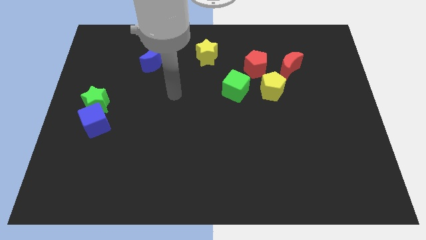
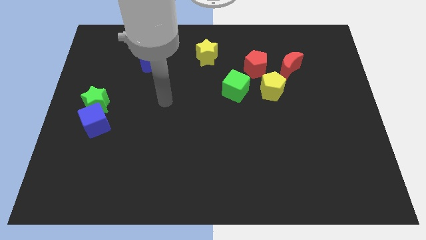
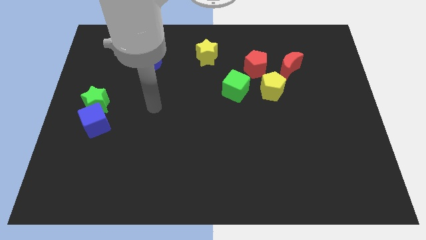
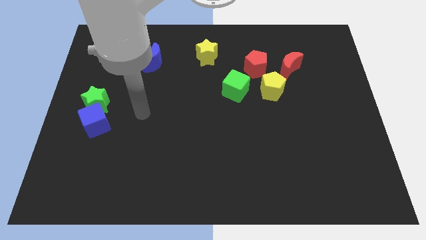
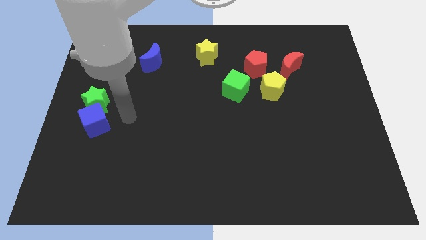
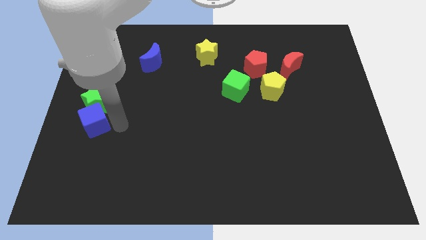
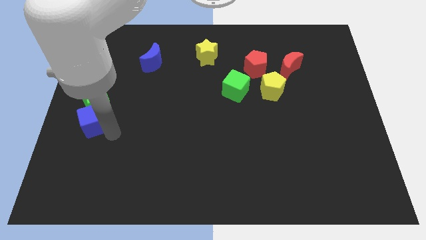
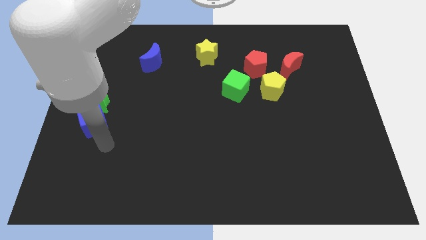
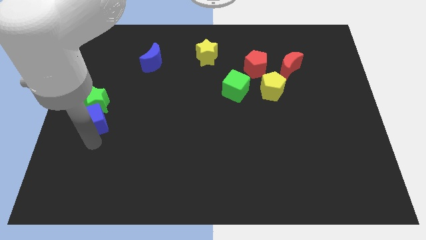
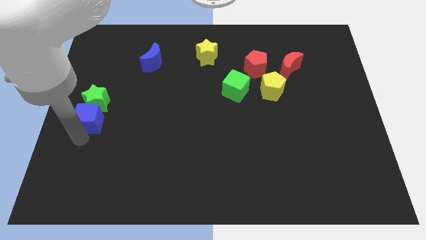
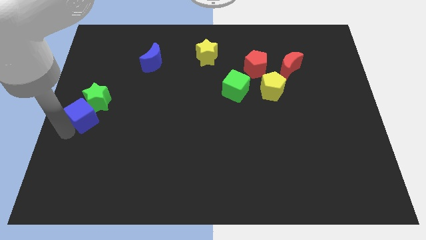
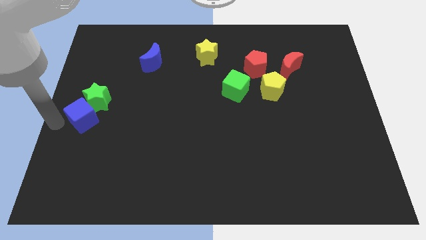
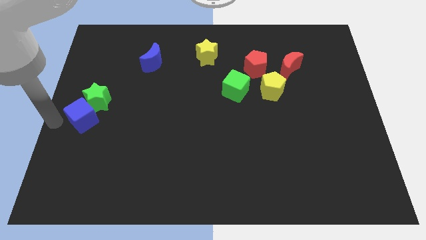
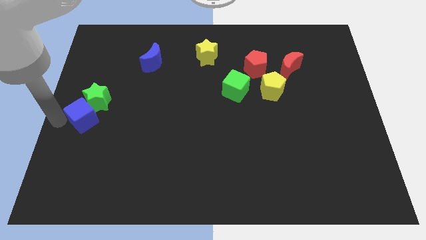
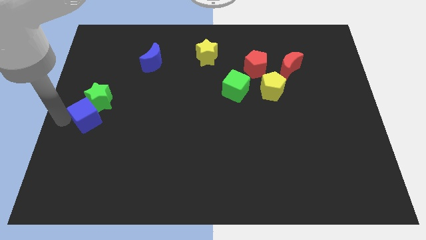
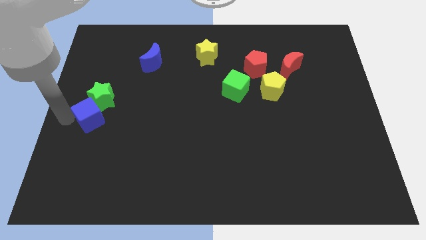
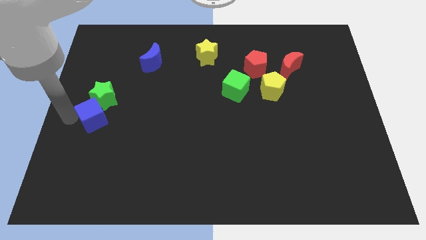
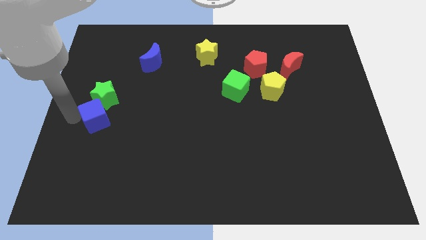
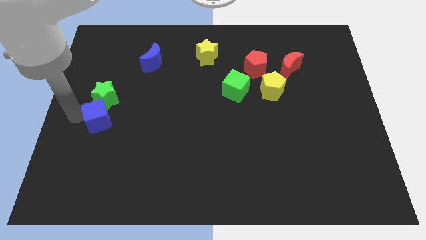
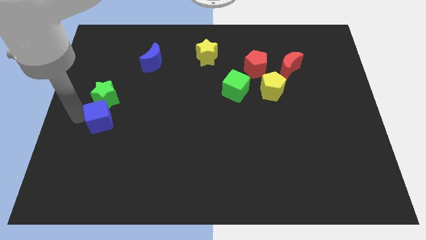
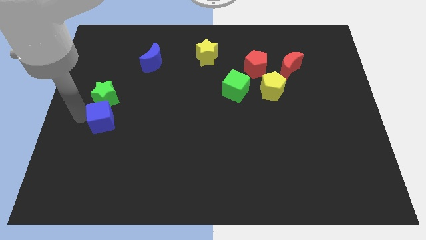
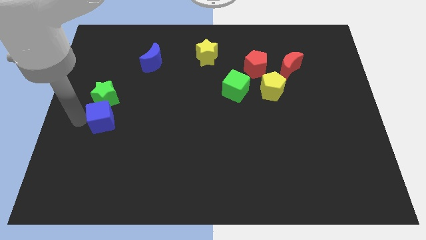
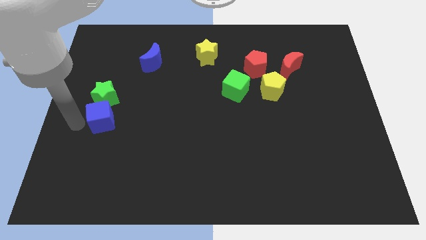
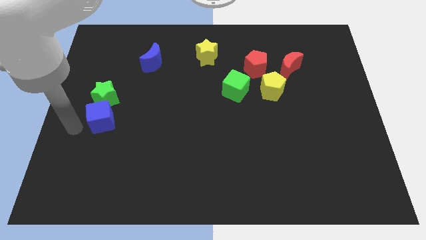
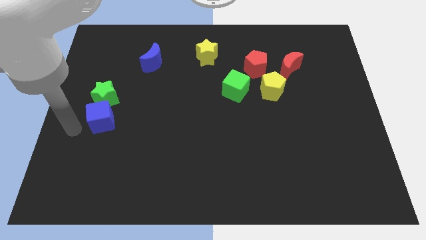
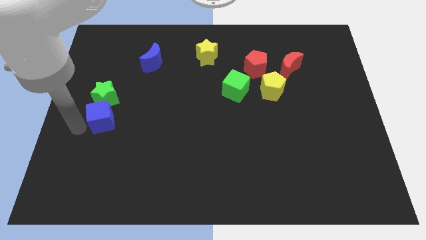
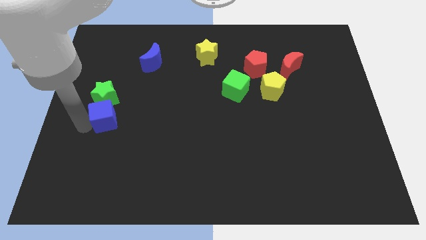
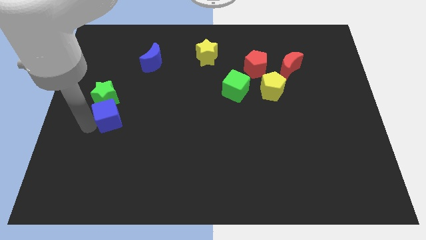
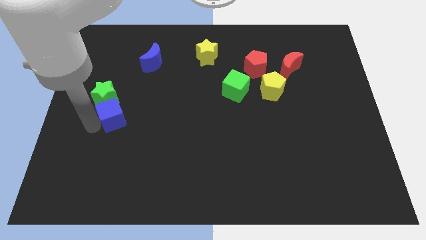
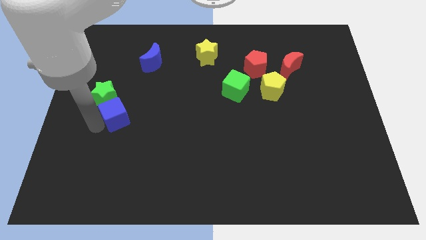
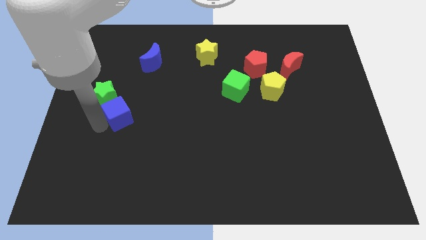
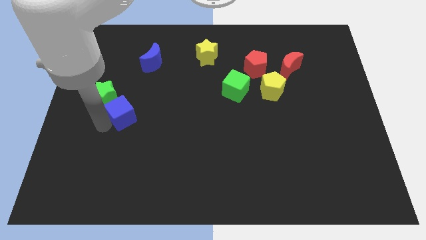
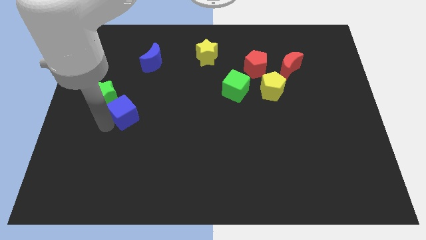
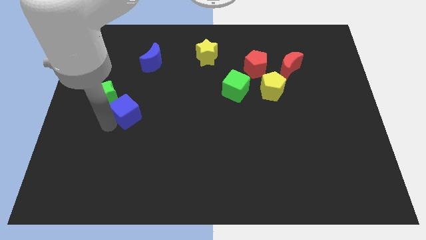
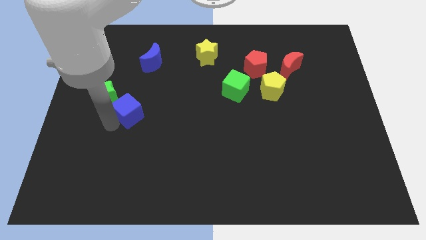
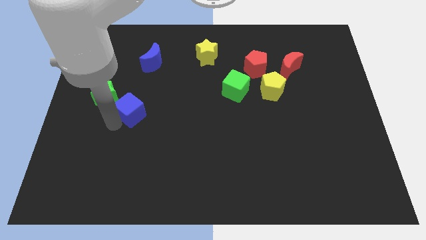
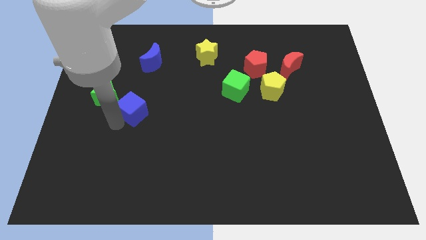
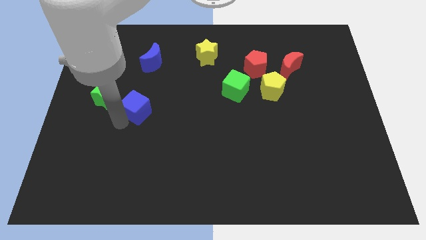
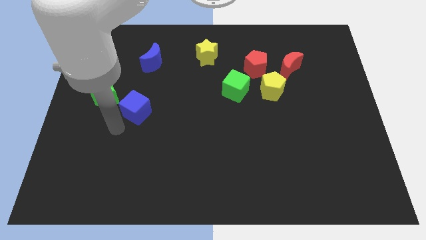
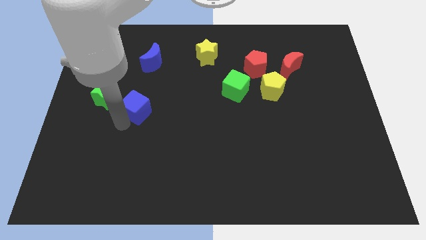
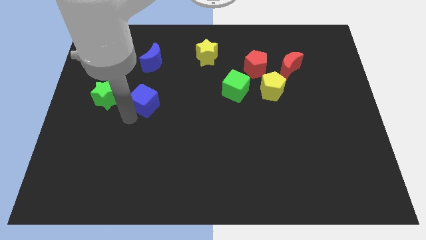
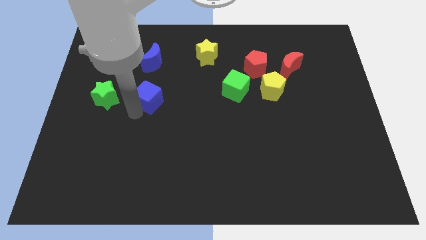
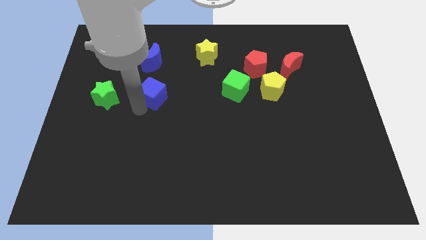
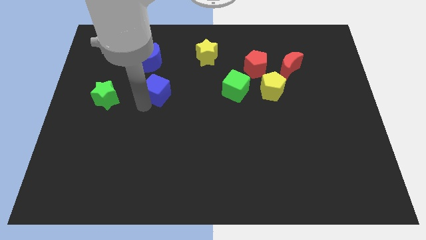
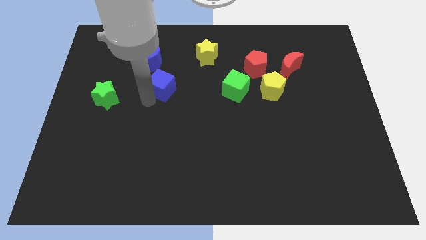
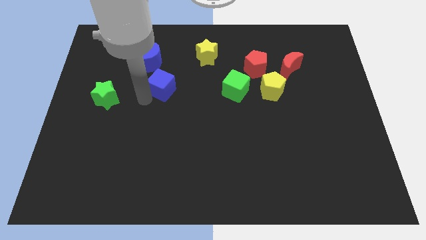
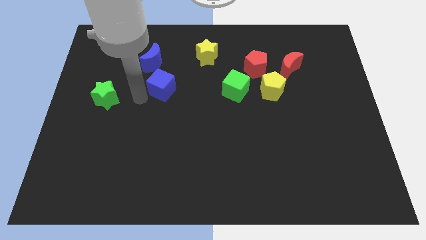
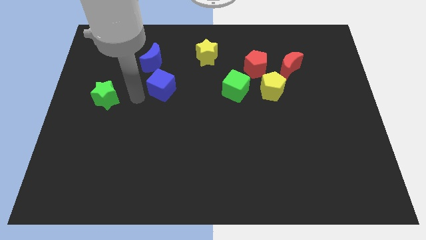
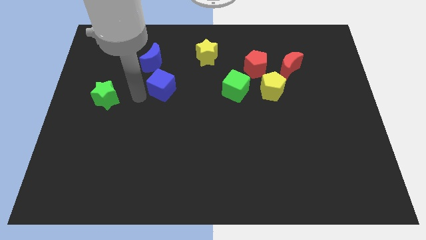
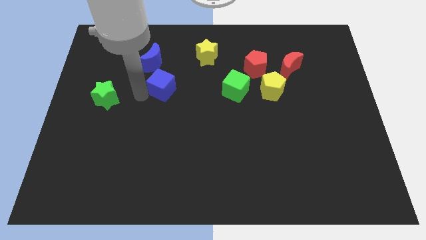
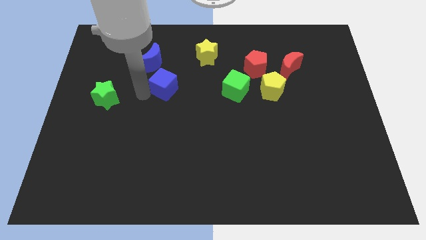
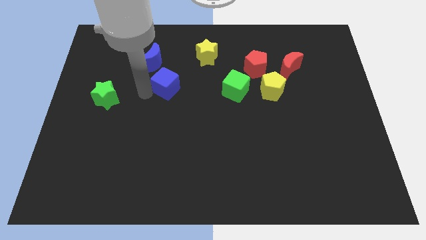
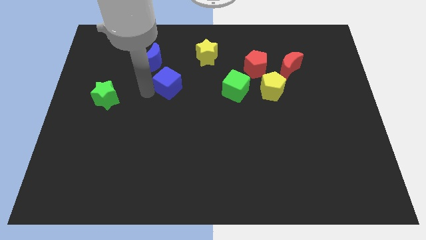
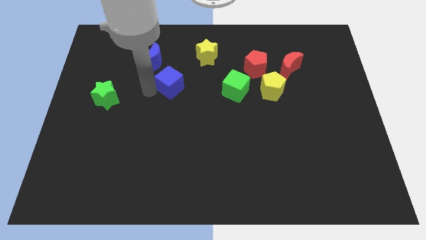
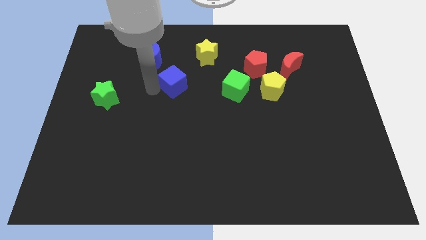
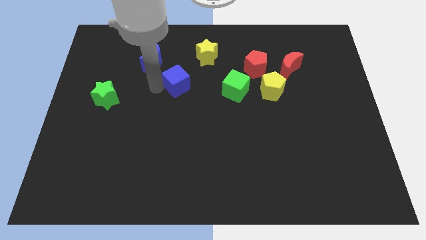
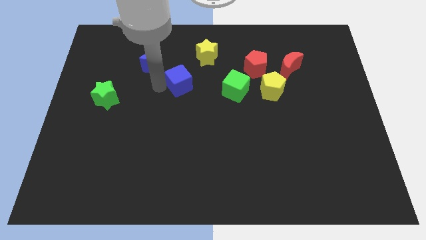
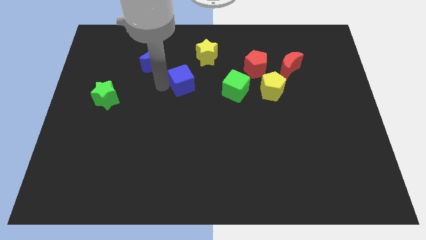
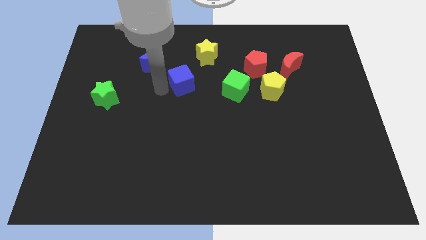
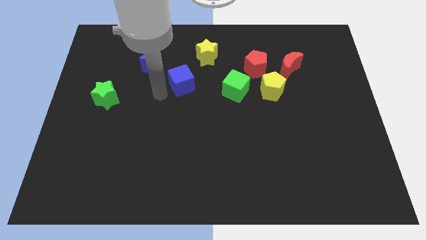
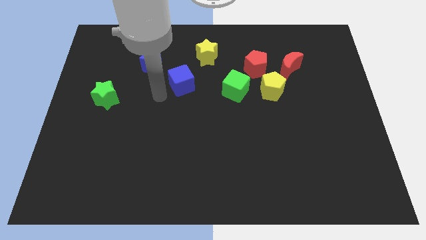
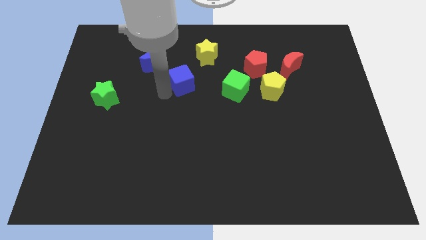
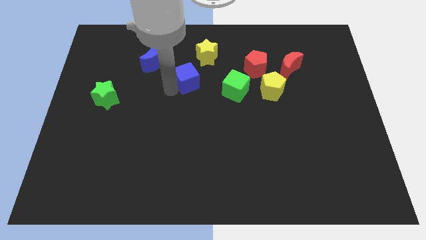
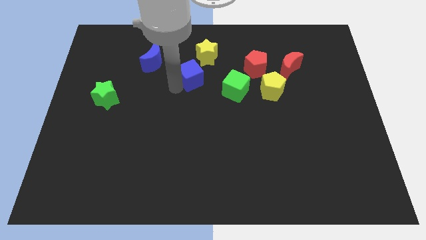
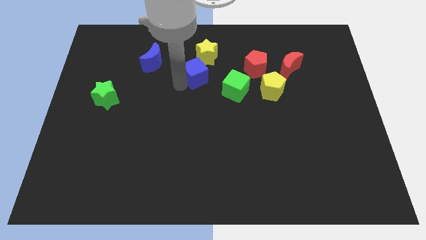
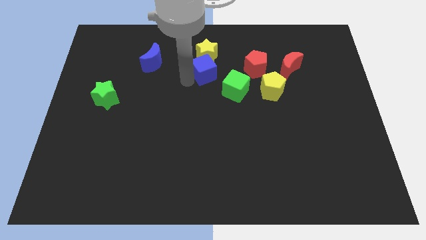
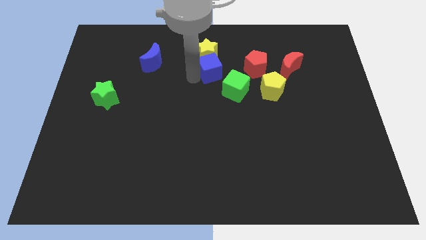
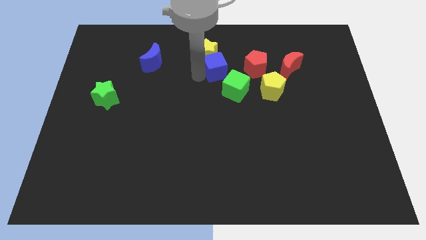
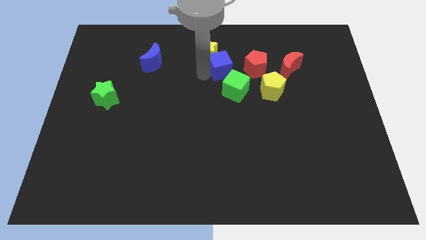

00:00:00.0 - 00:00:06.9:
push the blue cube just right of the yellow star

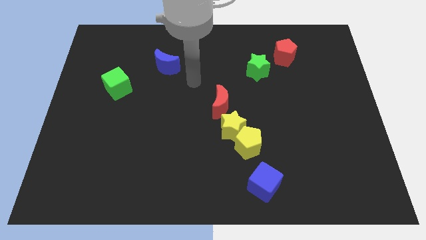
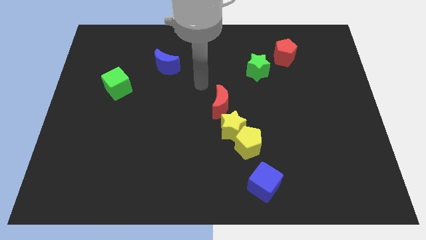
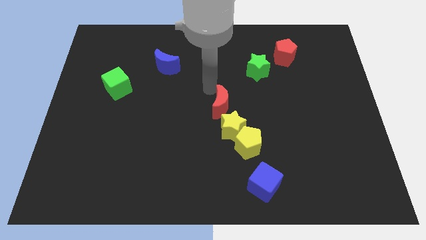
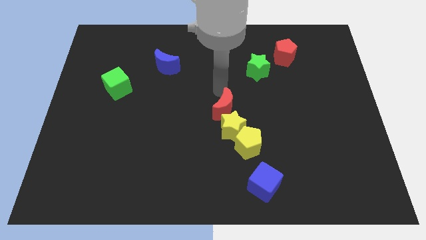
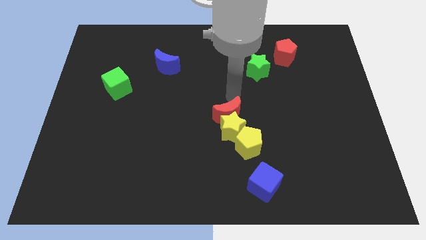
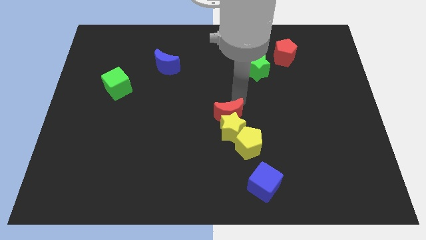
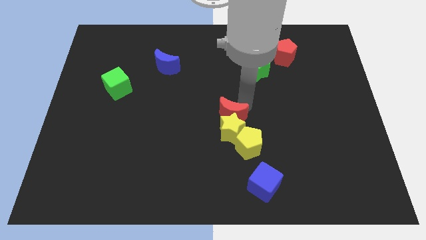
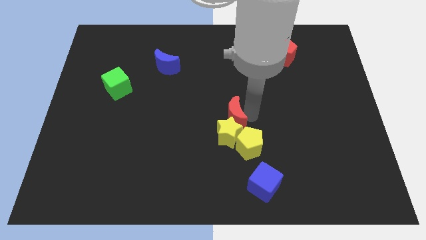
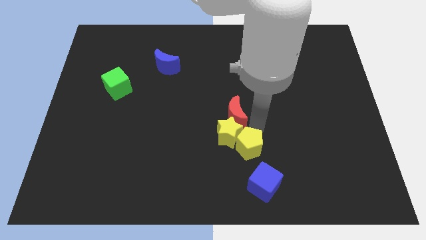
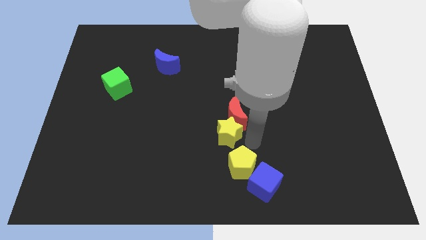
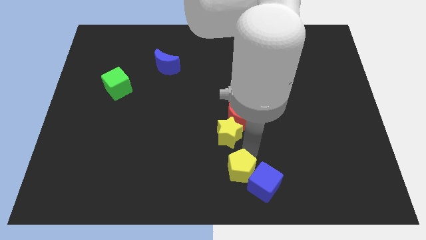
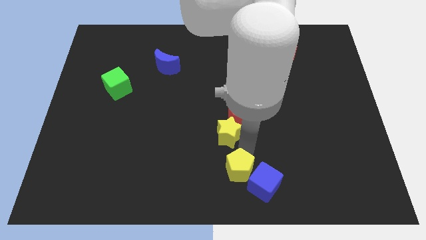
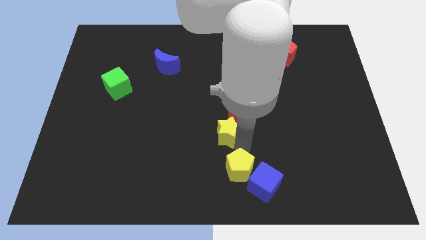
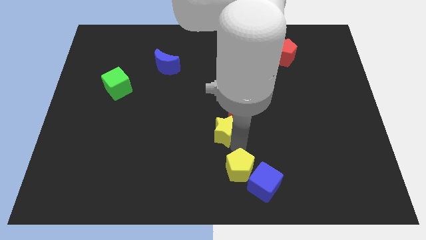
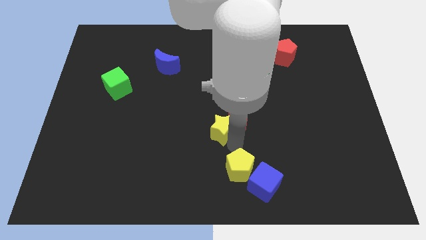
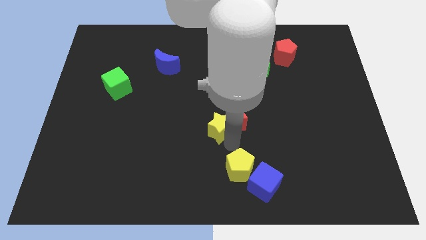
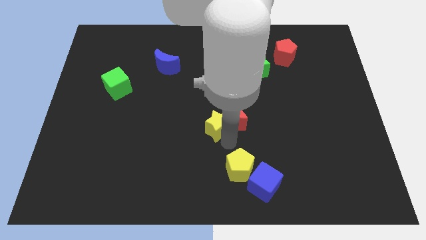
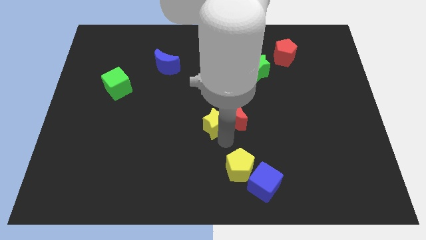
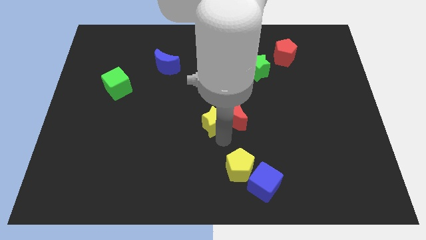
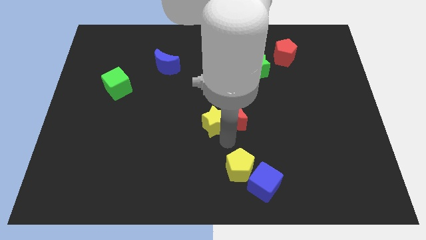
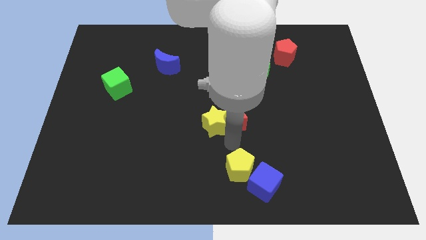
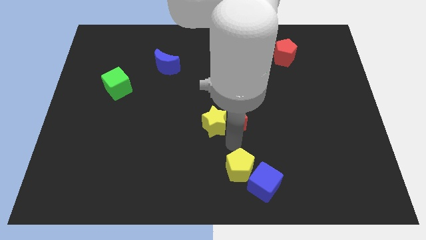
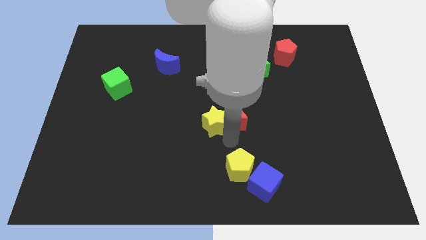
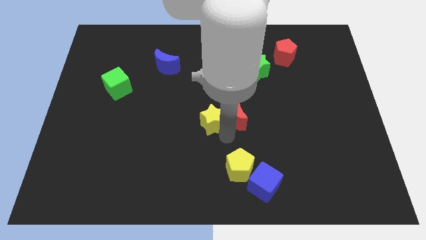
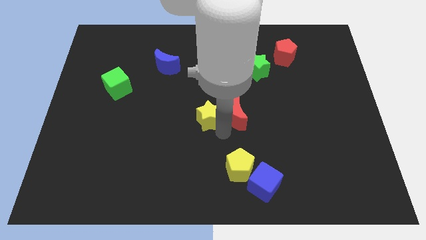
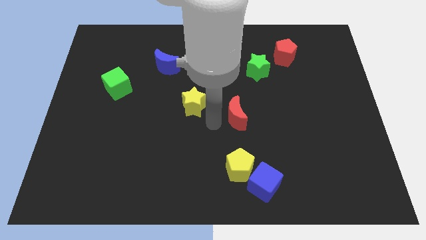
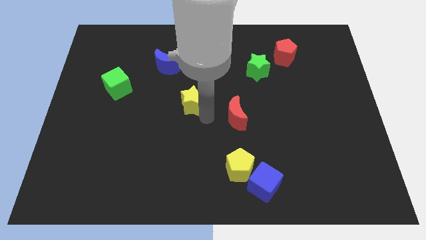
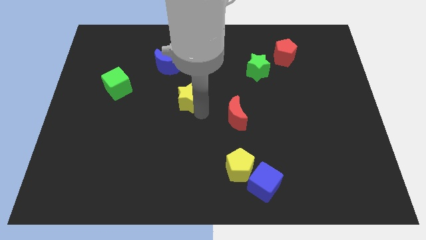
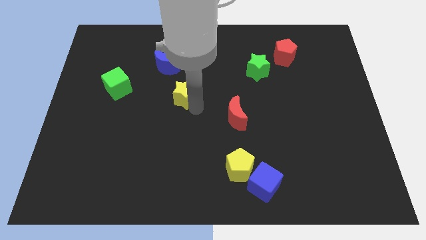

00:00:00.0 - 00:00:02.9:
push the yellow star to the bottom right of the blue moon
